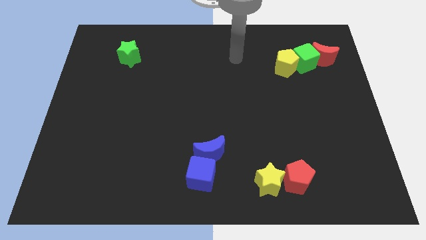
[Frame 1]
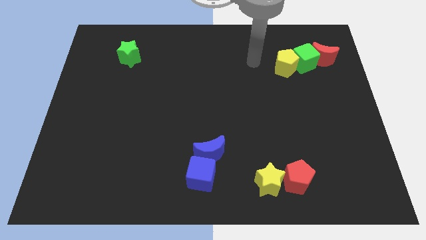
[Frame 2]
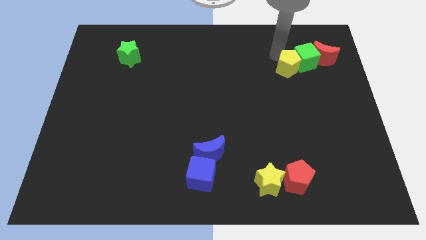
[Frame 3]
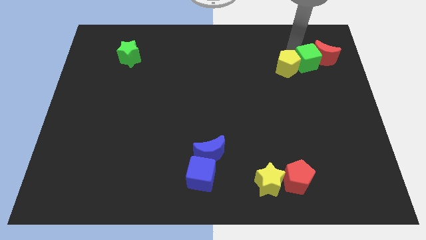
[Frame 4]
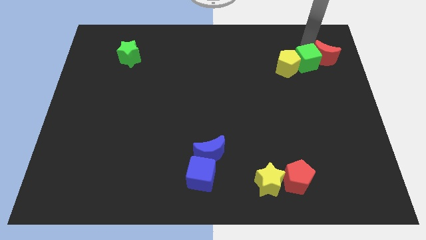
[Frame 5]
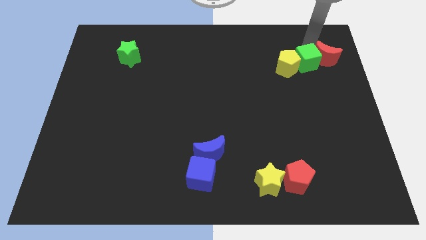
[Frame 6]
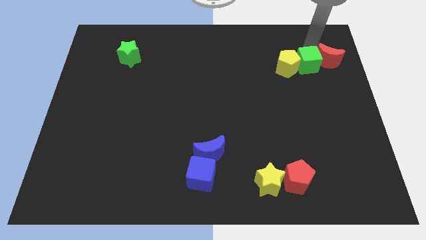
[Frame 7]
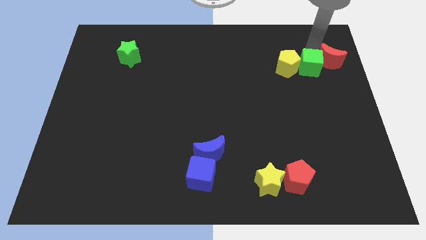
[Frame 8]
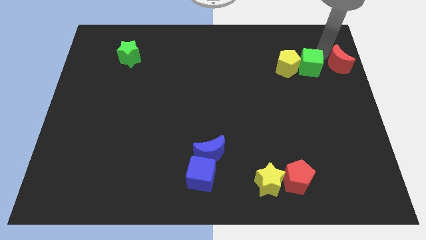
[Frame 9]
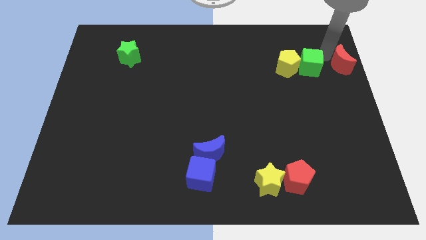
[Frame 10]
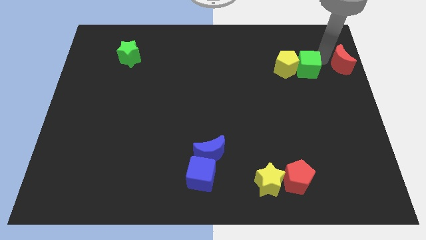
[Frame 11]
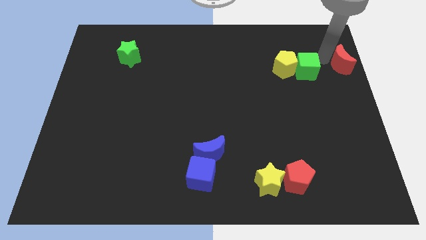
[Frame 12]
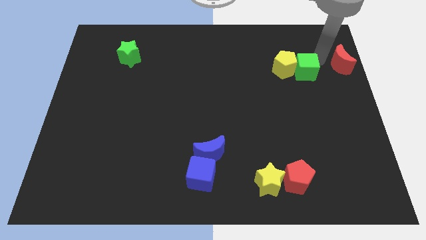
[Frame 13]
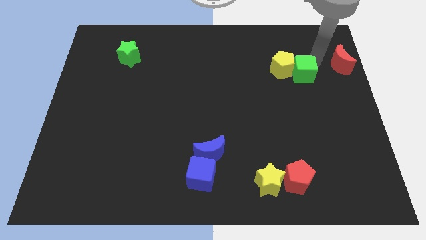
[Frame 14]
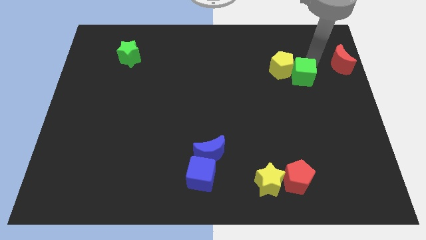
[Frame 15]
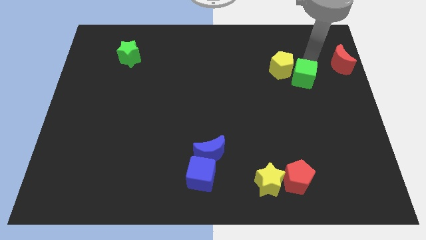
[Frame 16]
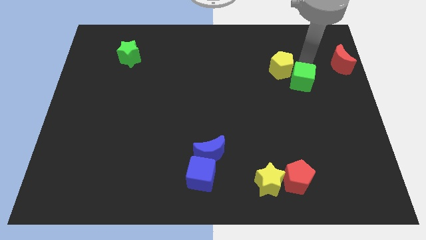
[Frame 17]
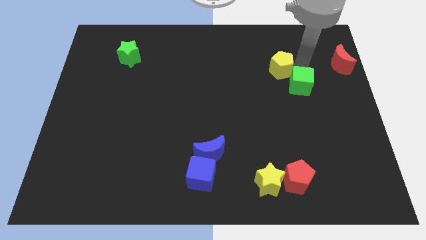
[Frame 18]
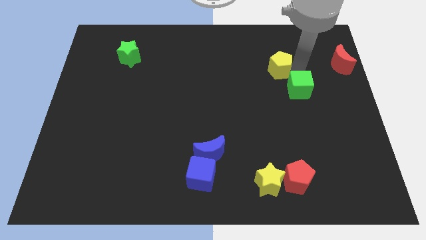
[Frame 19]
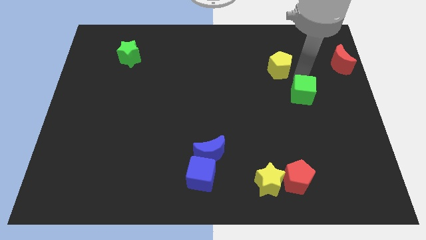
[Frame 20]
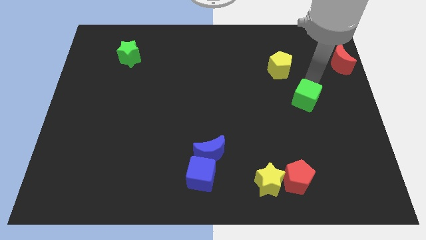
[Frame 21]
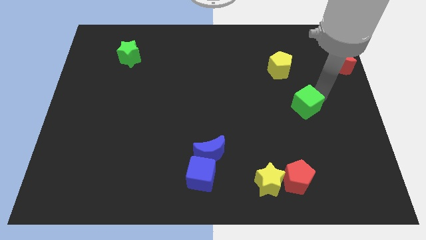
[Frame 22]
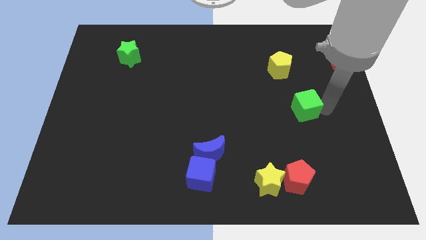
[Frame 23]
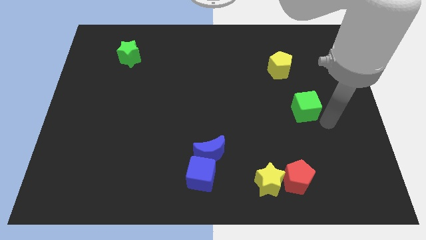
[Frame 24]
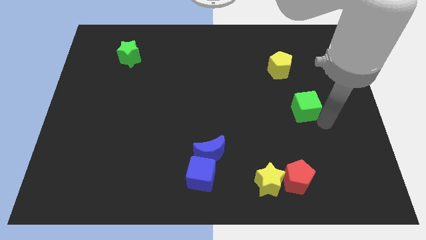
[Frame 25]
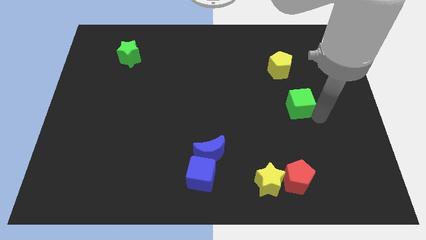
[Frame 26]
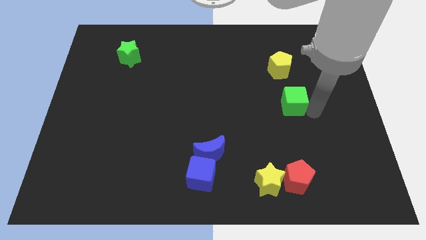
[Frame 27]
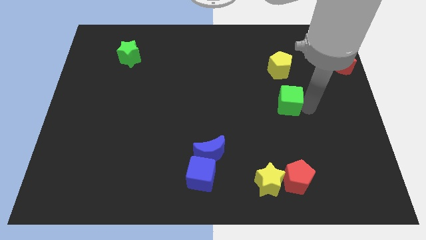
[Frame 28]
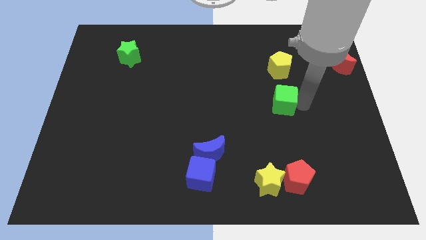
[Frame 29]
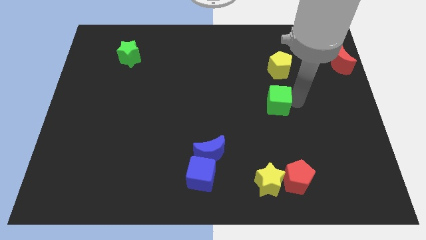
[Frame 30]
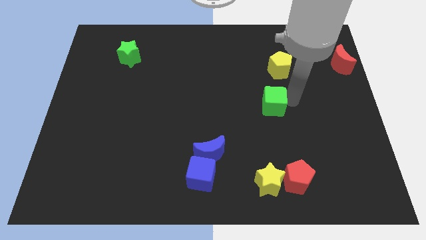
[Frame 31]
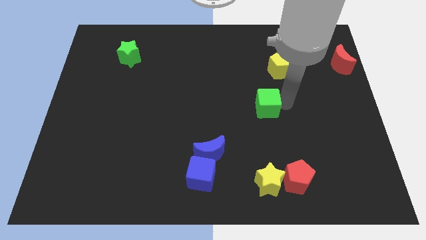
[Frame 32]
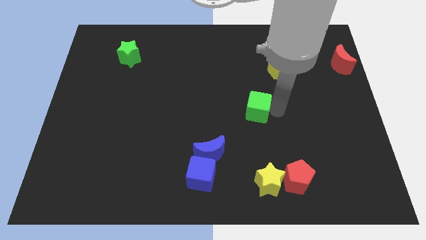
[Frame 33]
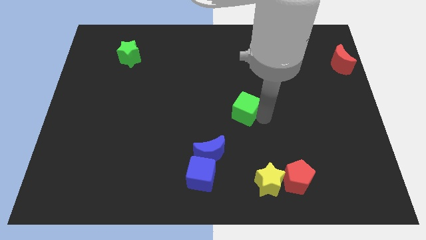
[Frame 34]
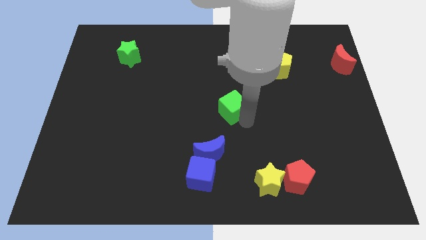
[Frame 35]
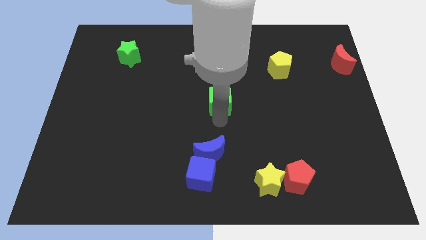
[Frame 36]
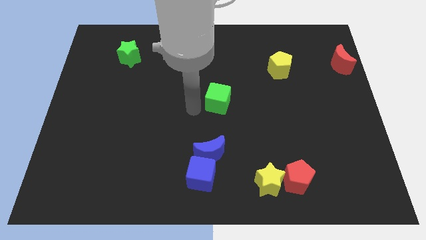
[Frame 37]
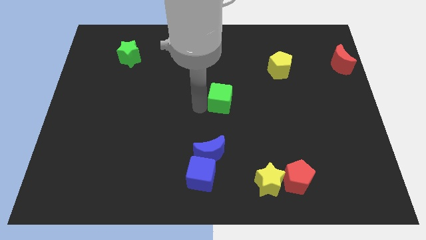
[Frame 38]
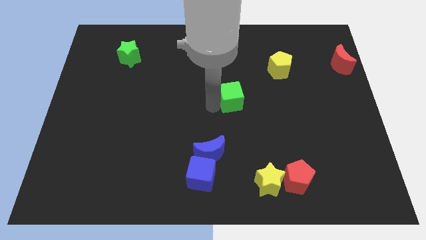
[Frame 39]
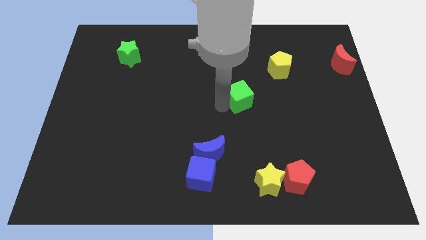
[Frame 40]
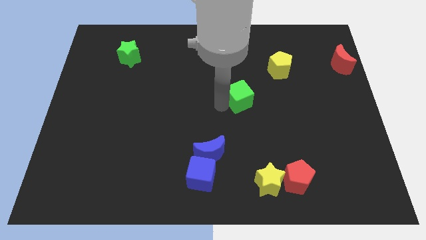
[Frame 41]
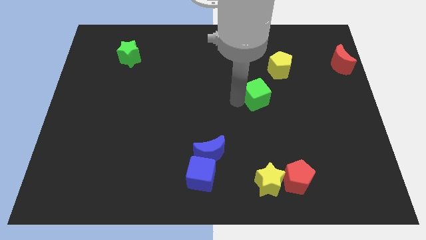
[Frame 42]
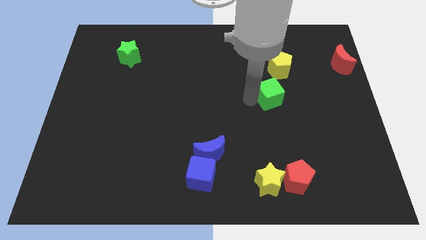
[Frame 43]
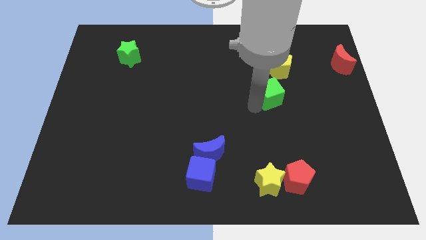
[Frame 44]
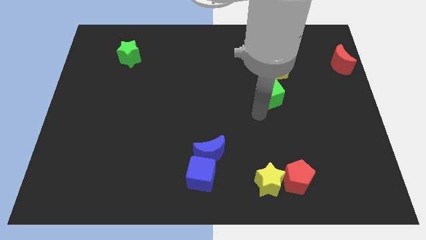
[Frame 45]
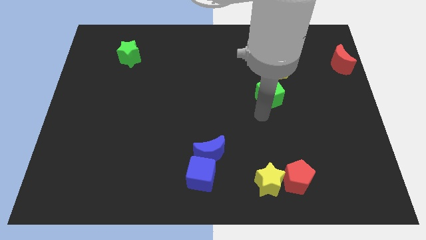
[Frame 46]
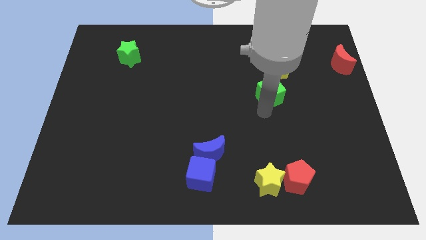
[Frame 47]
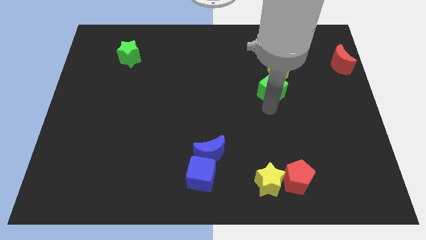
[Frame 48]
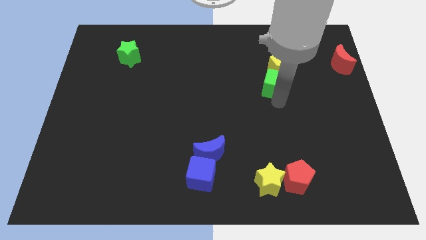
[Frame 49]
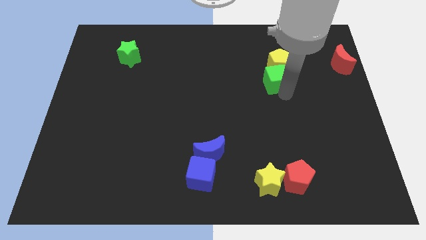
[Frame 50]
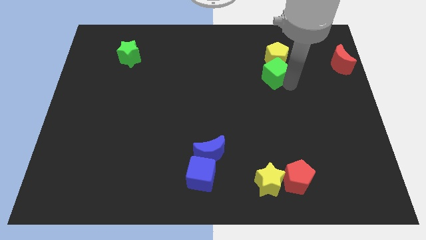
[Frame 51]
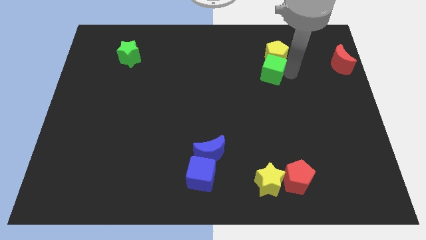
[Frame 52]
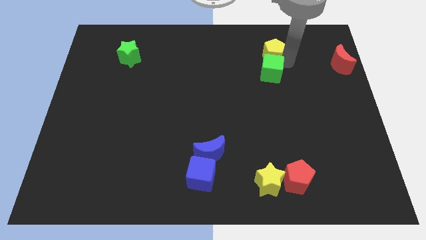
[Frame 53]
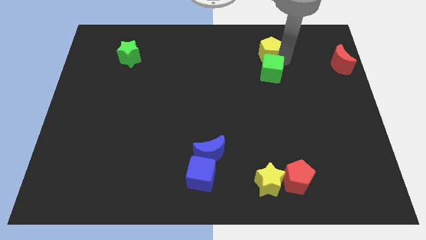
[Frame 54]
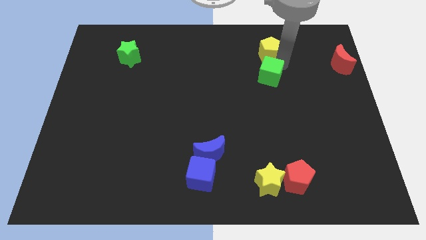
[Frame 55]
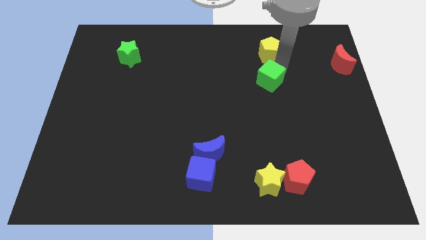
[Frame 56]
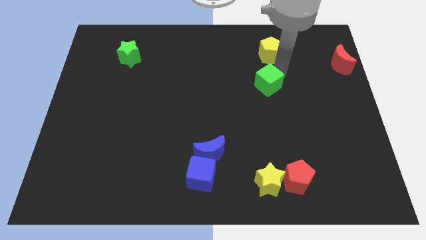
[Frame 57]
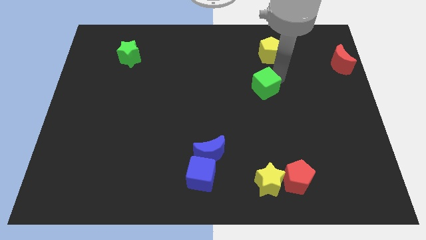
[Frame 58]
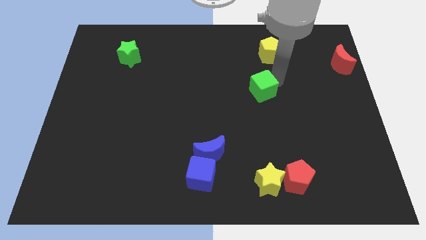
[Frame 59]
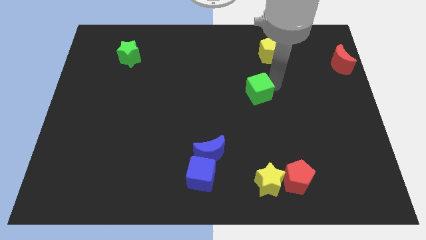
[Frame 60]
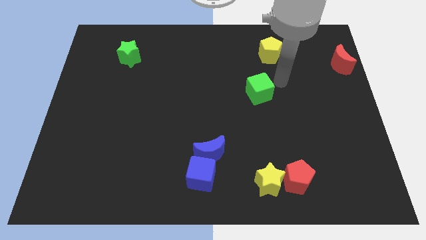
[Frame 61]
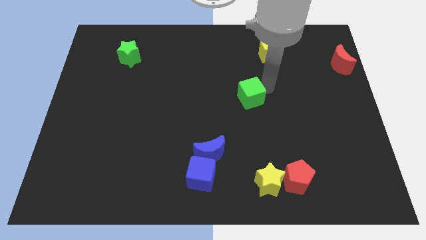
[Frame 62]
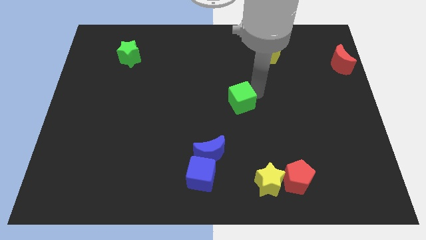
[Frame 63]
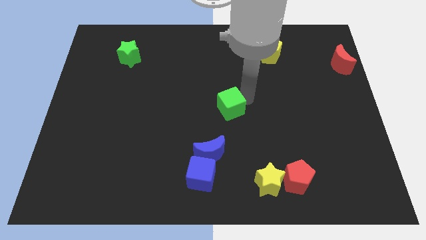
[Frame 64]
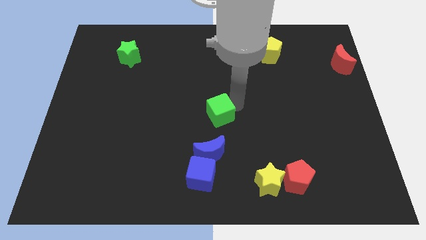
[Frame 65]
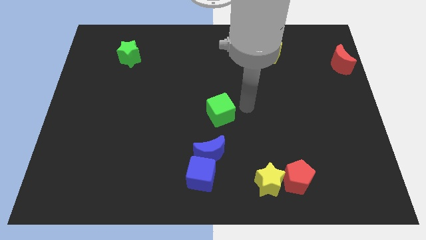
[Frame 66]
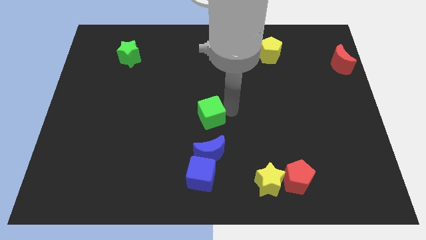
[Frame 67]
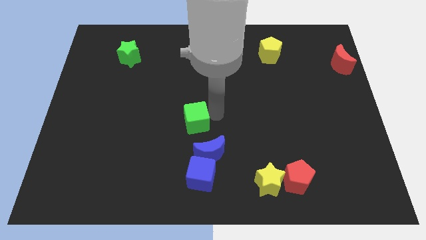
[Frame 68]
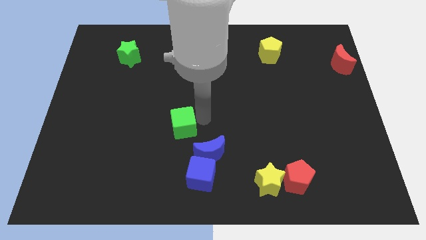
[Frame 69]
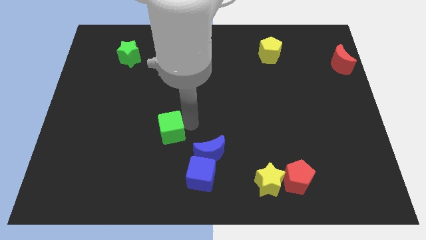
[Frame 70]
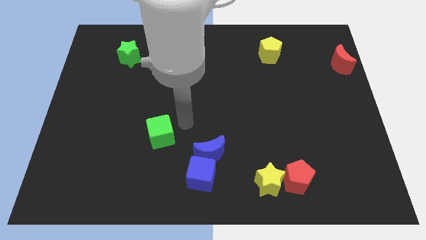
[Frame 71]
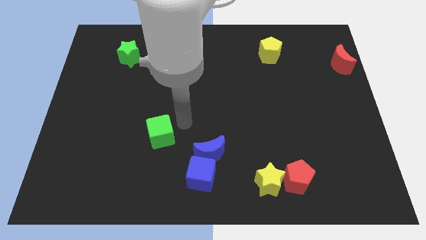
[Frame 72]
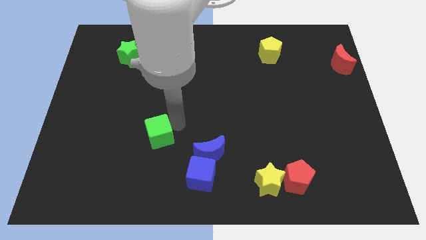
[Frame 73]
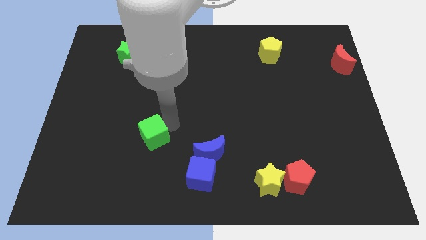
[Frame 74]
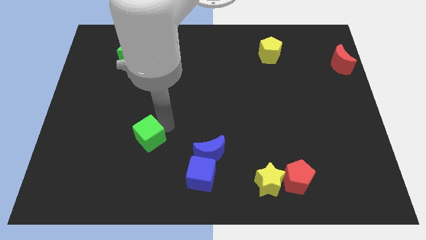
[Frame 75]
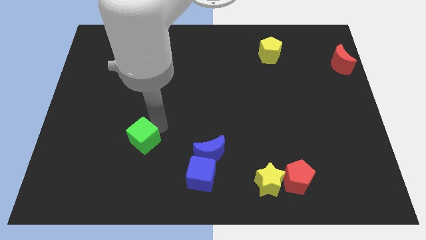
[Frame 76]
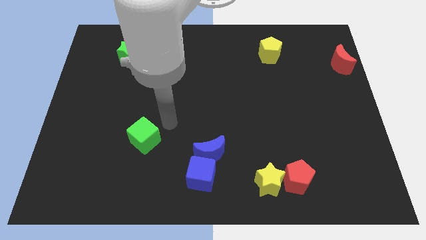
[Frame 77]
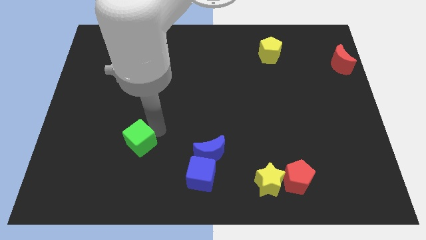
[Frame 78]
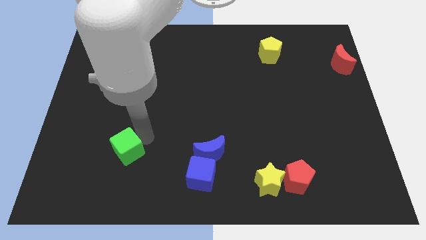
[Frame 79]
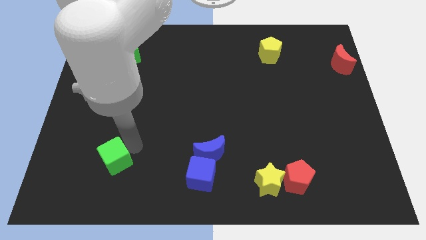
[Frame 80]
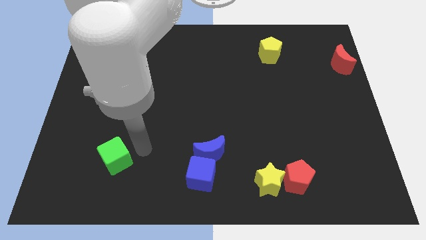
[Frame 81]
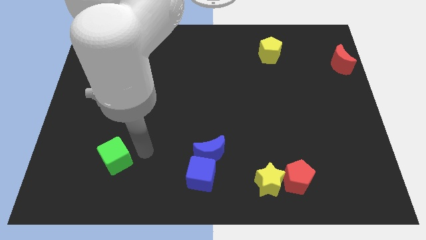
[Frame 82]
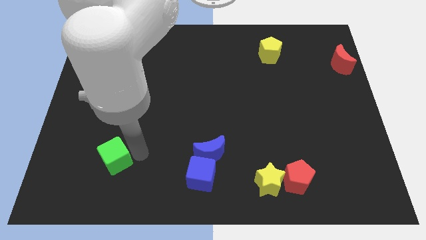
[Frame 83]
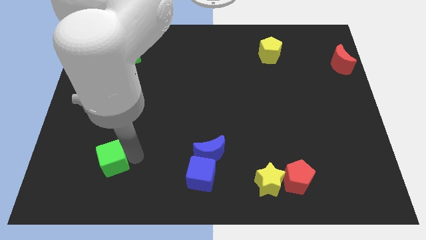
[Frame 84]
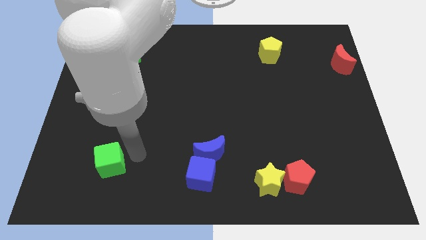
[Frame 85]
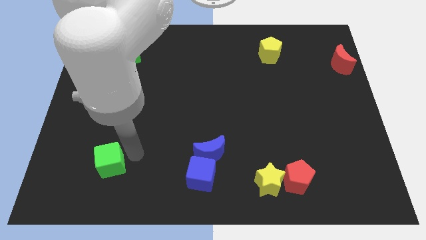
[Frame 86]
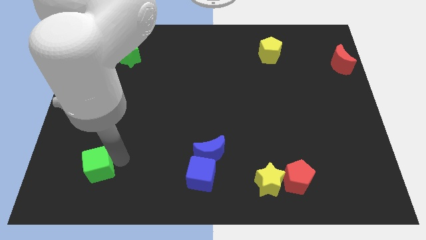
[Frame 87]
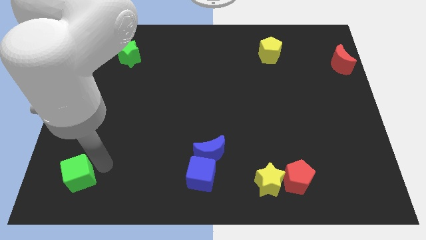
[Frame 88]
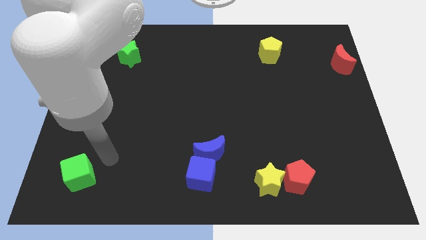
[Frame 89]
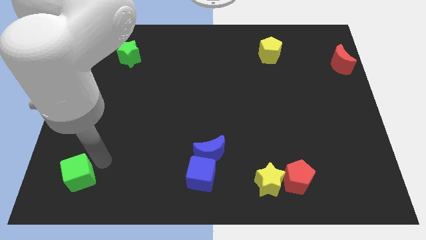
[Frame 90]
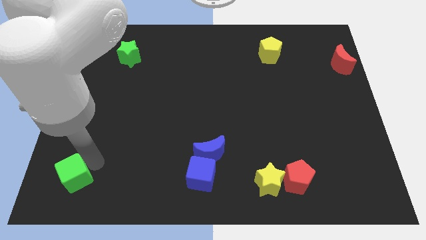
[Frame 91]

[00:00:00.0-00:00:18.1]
slide the green cube to the bottom left of the board
